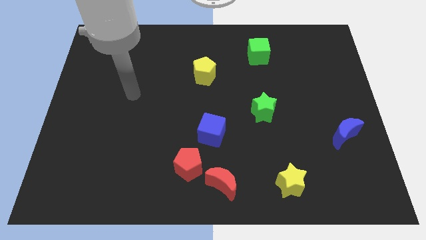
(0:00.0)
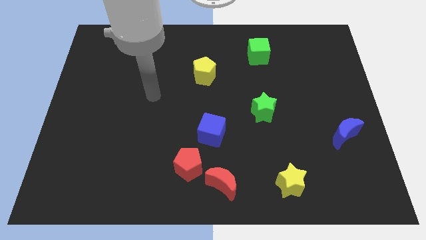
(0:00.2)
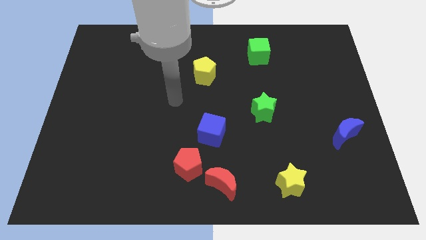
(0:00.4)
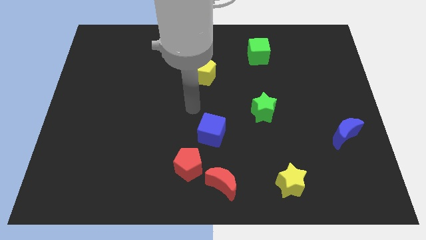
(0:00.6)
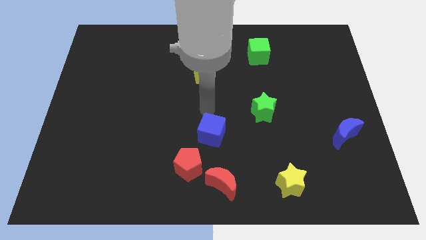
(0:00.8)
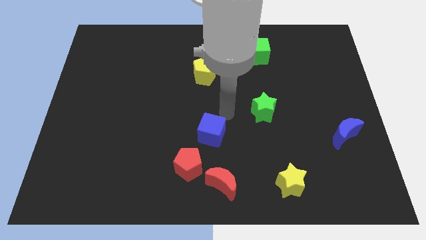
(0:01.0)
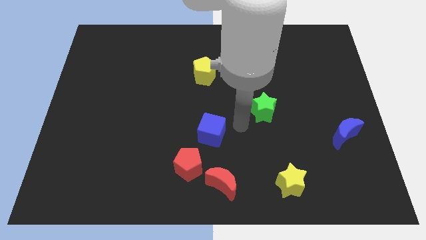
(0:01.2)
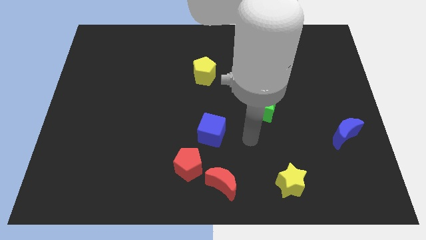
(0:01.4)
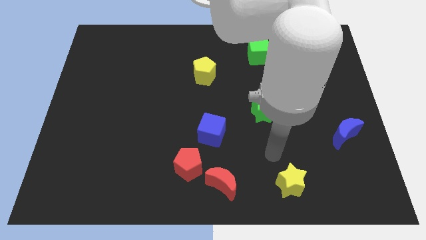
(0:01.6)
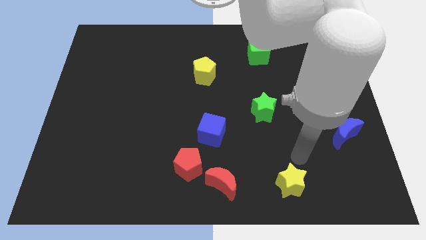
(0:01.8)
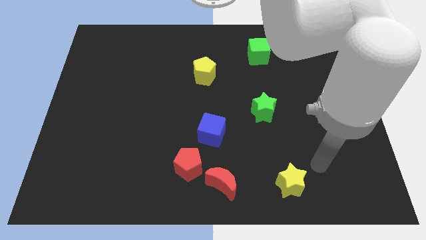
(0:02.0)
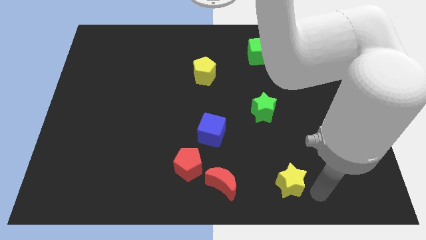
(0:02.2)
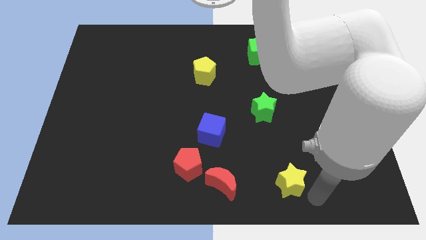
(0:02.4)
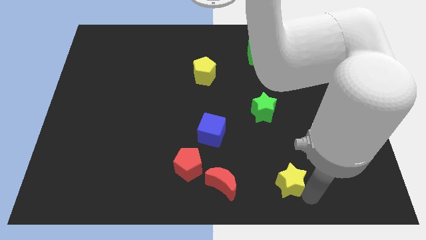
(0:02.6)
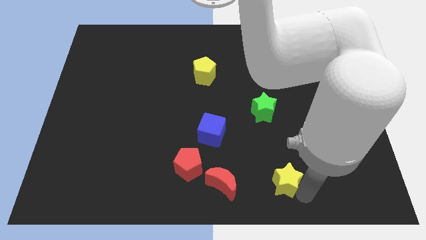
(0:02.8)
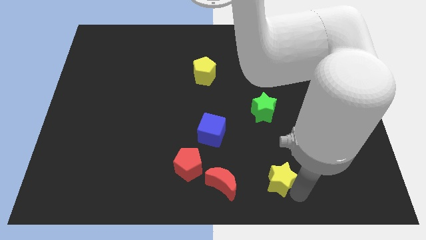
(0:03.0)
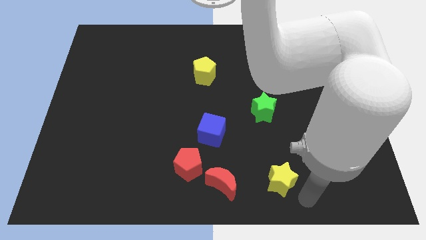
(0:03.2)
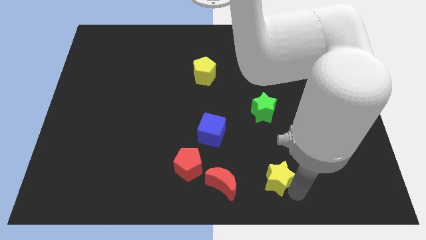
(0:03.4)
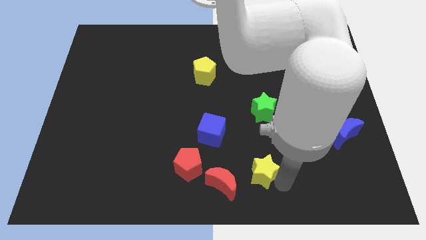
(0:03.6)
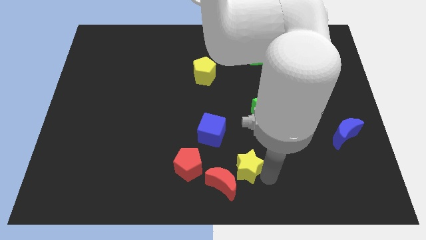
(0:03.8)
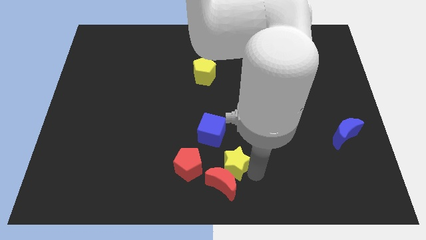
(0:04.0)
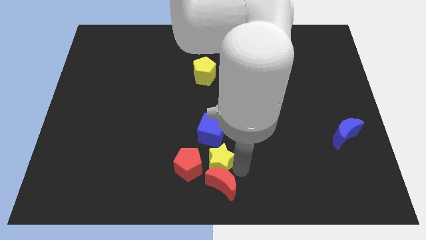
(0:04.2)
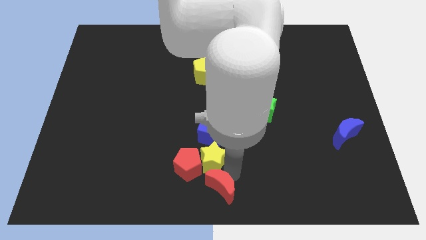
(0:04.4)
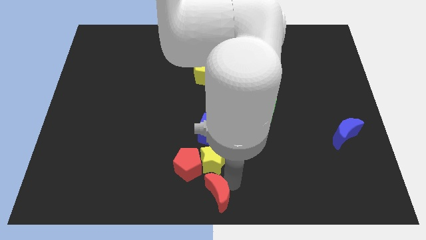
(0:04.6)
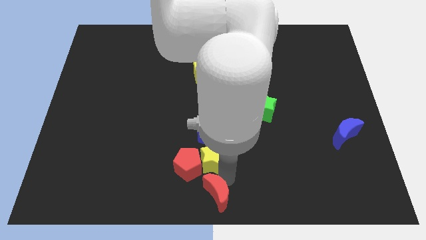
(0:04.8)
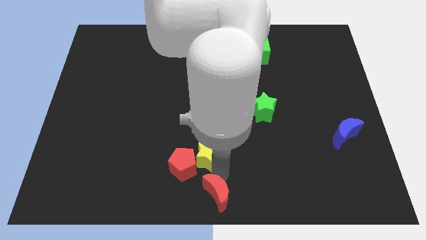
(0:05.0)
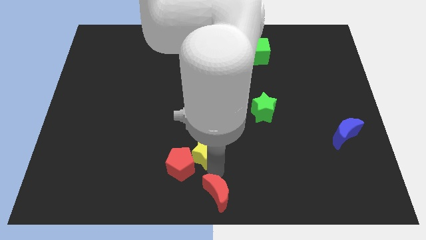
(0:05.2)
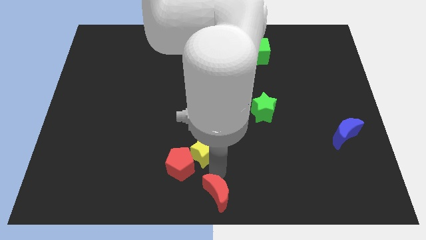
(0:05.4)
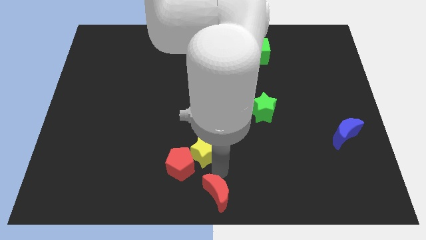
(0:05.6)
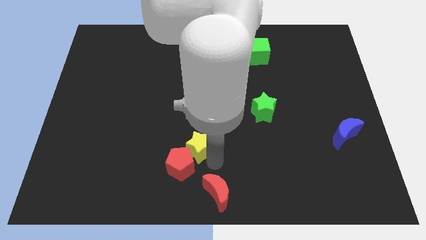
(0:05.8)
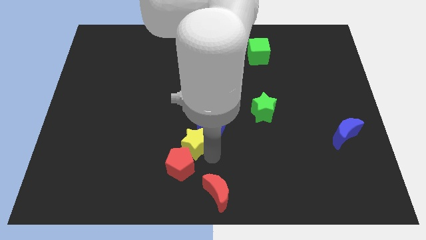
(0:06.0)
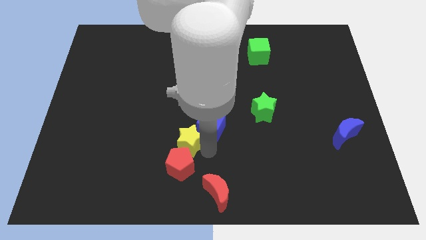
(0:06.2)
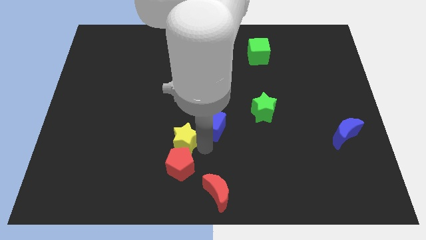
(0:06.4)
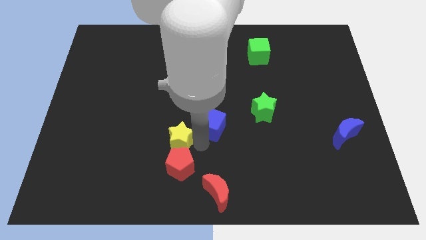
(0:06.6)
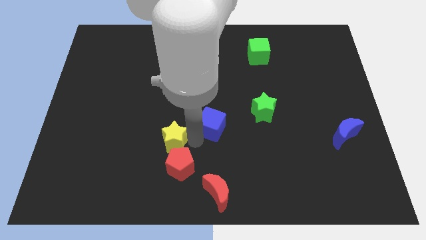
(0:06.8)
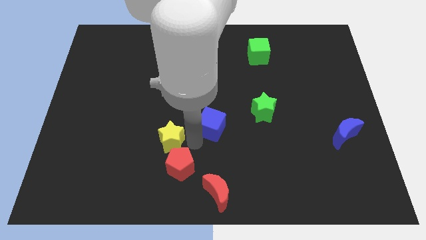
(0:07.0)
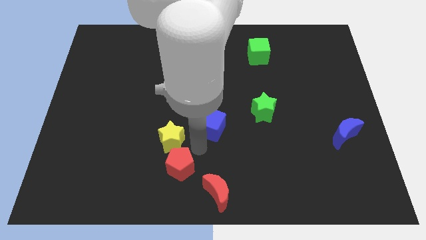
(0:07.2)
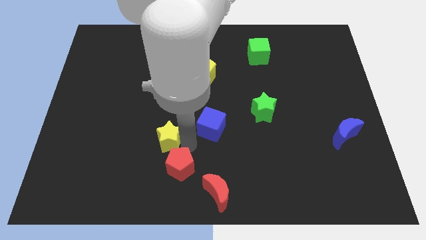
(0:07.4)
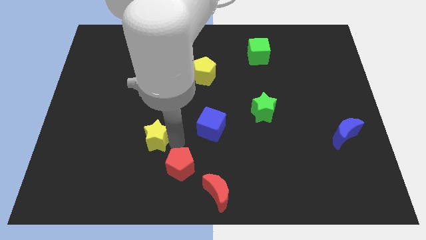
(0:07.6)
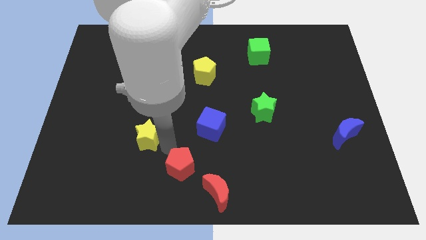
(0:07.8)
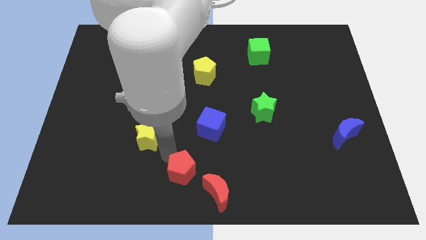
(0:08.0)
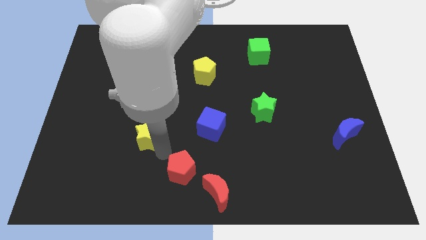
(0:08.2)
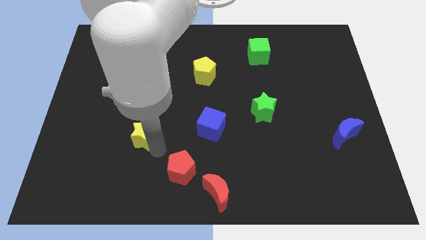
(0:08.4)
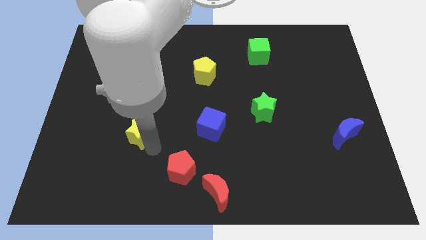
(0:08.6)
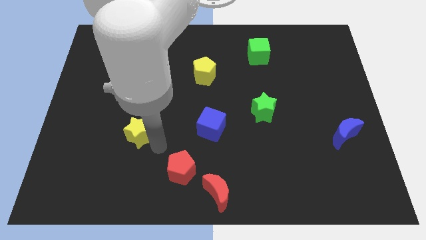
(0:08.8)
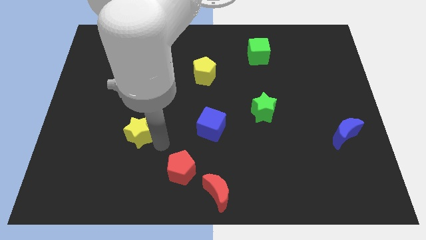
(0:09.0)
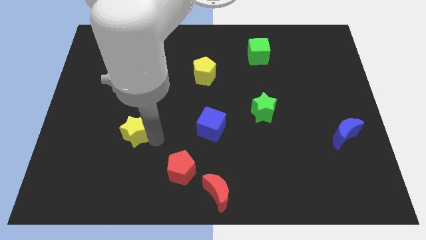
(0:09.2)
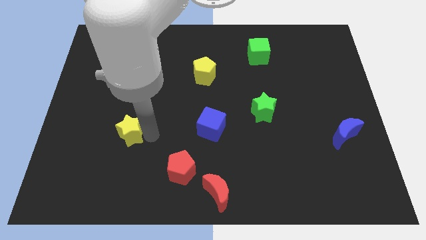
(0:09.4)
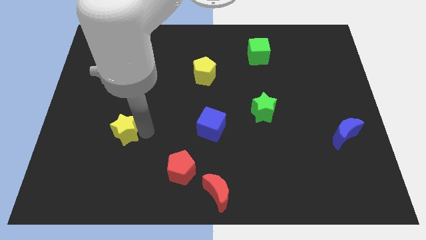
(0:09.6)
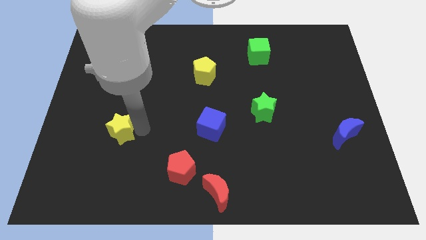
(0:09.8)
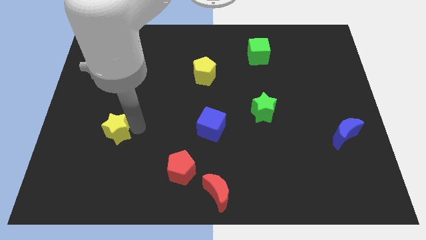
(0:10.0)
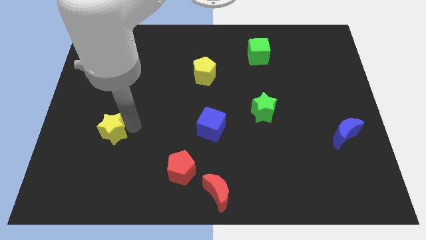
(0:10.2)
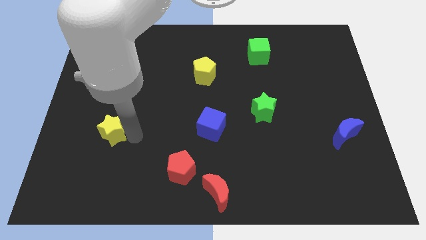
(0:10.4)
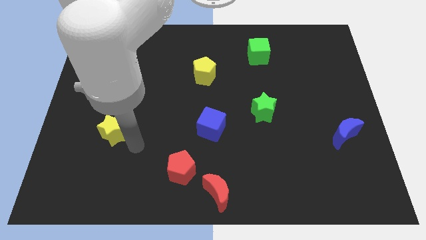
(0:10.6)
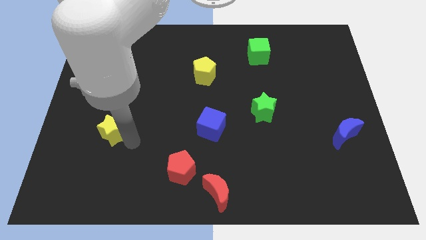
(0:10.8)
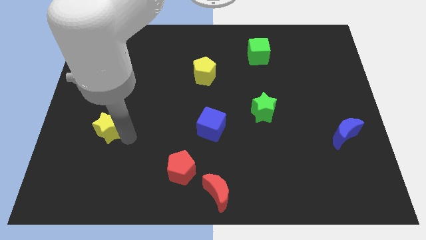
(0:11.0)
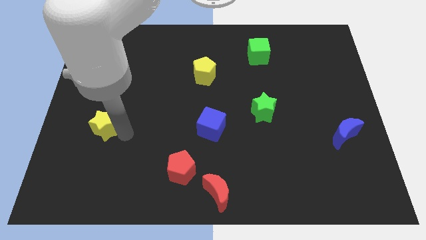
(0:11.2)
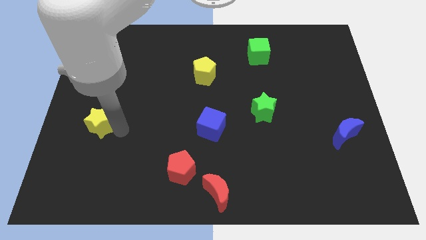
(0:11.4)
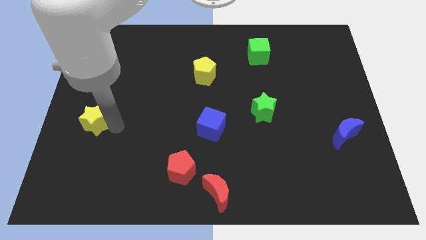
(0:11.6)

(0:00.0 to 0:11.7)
put the yellow star to the center left
